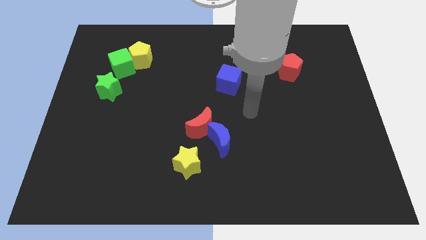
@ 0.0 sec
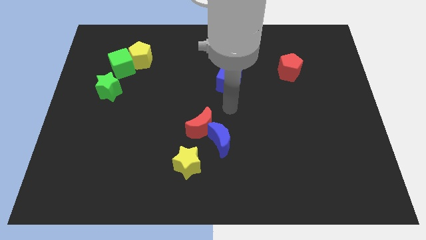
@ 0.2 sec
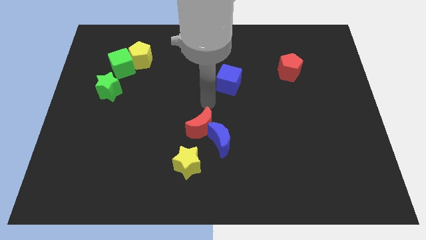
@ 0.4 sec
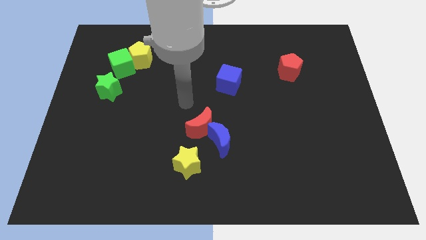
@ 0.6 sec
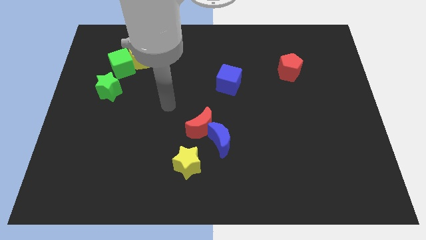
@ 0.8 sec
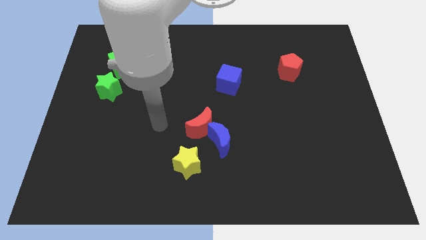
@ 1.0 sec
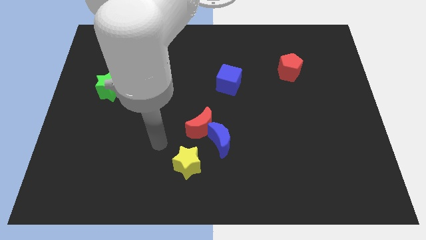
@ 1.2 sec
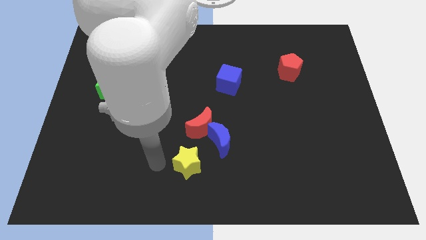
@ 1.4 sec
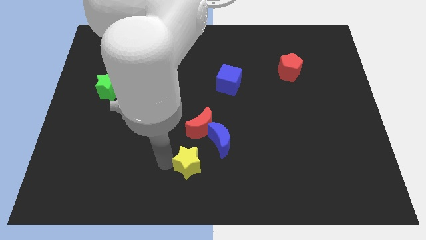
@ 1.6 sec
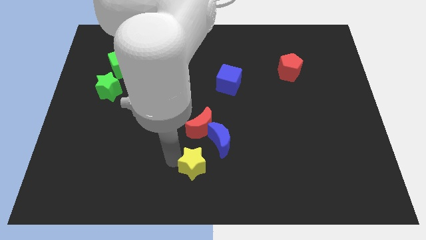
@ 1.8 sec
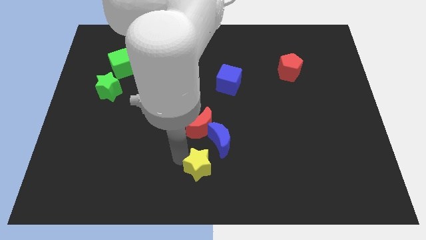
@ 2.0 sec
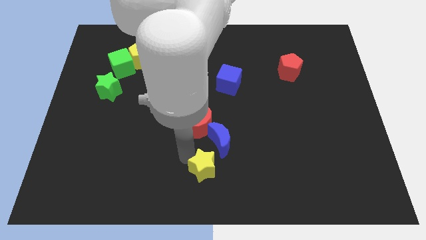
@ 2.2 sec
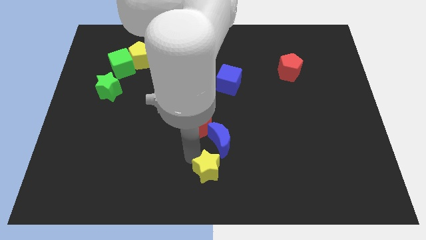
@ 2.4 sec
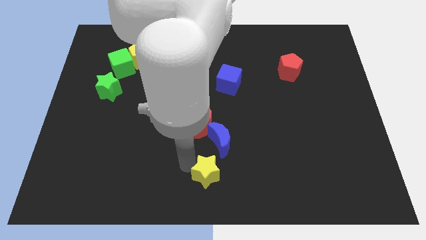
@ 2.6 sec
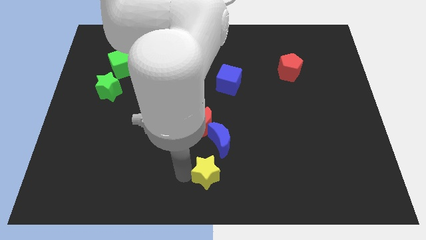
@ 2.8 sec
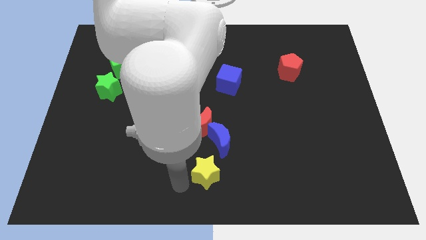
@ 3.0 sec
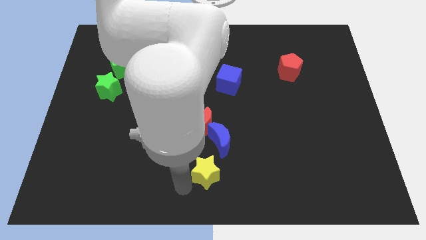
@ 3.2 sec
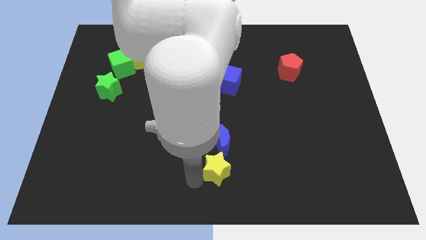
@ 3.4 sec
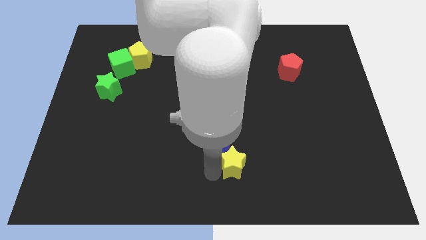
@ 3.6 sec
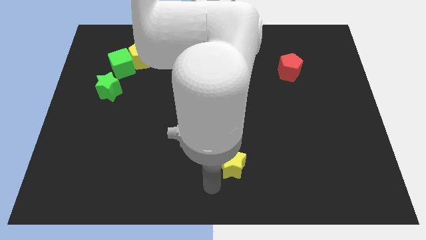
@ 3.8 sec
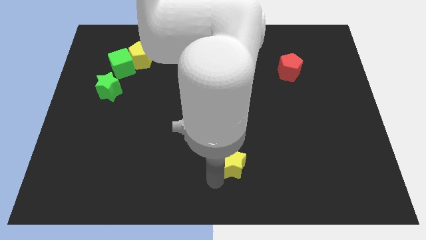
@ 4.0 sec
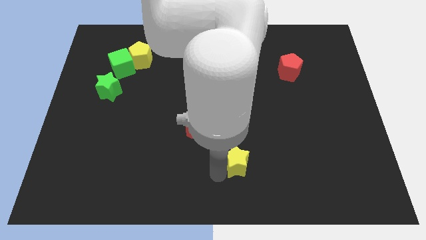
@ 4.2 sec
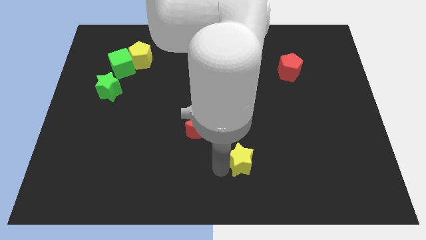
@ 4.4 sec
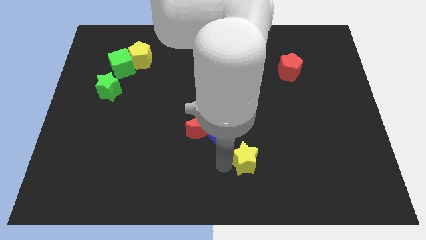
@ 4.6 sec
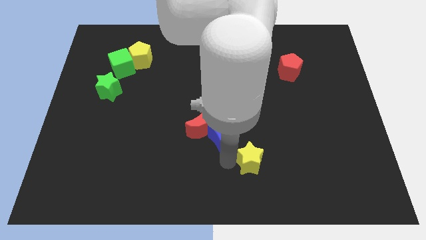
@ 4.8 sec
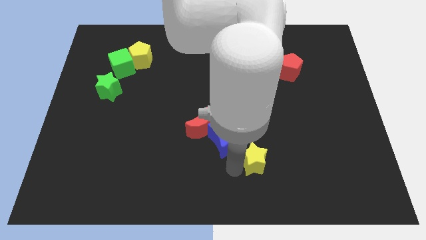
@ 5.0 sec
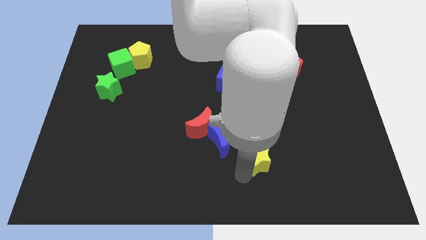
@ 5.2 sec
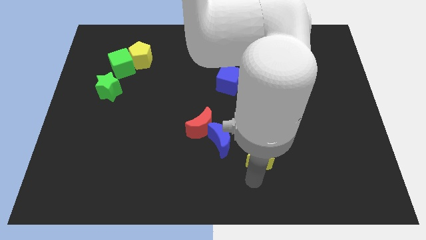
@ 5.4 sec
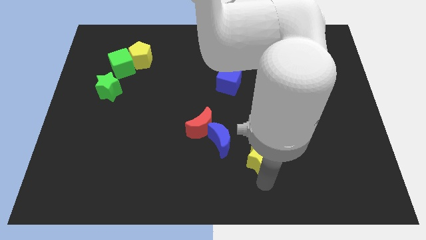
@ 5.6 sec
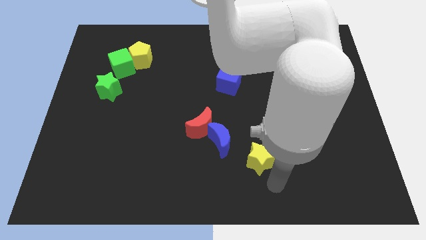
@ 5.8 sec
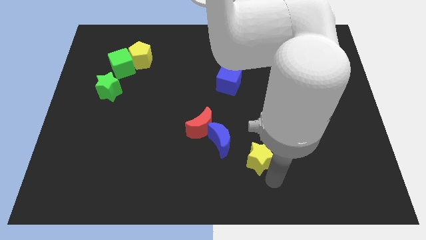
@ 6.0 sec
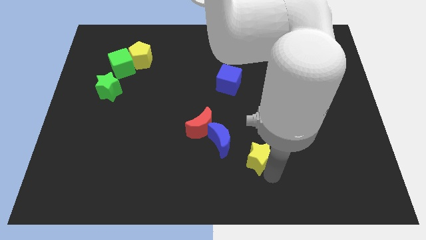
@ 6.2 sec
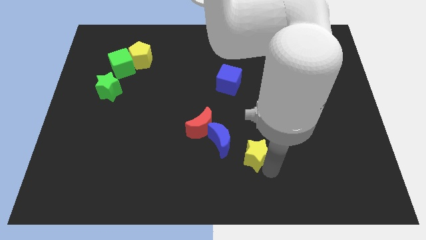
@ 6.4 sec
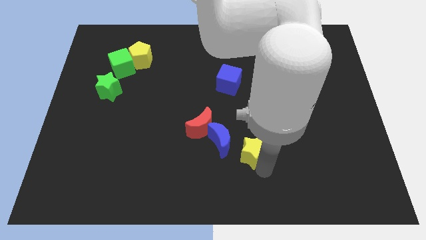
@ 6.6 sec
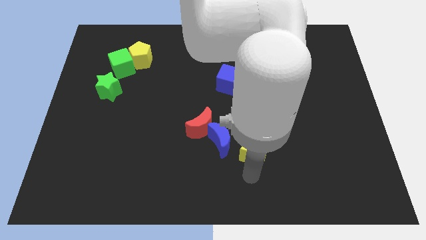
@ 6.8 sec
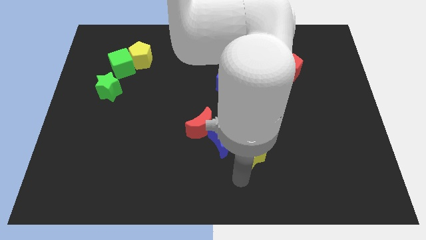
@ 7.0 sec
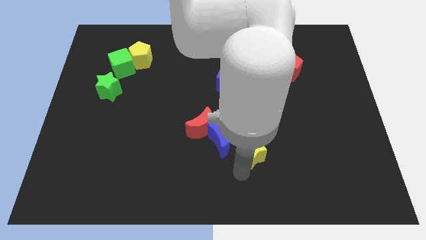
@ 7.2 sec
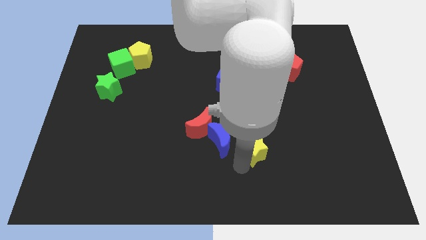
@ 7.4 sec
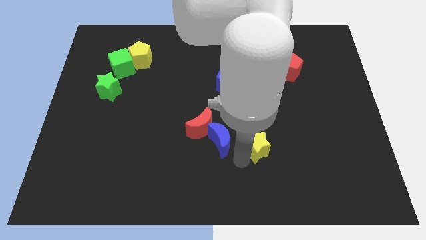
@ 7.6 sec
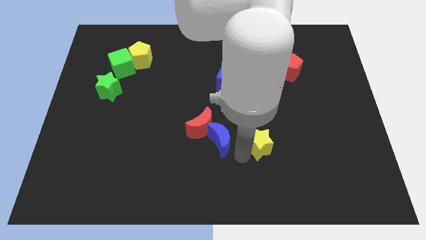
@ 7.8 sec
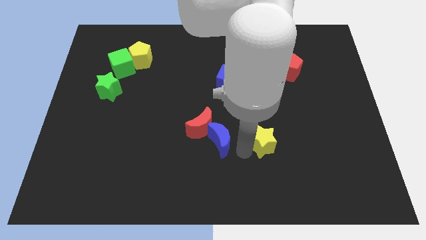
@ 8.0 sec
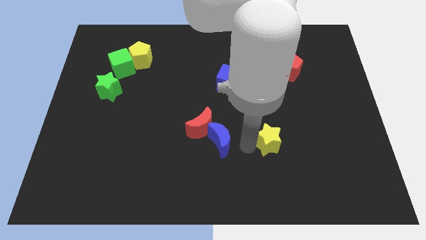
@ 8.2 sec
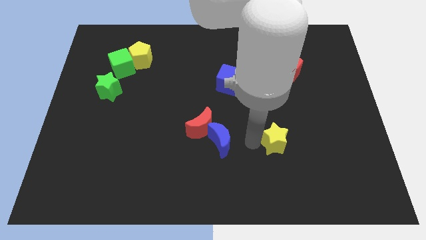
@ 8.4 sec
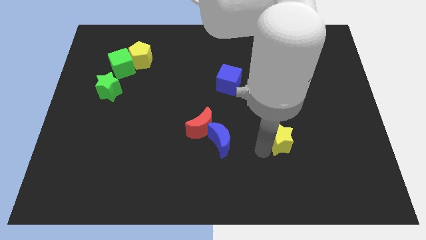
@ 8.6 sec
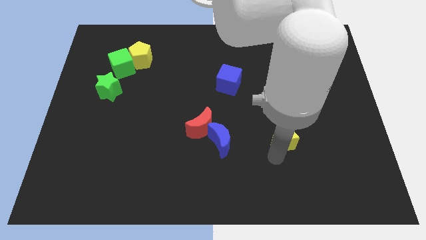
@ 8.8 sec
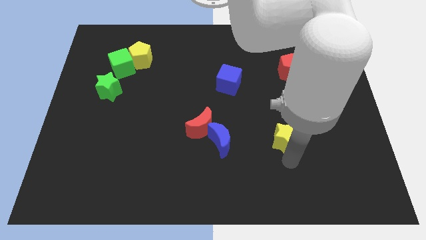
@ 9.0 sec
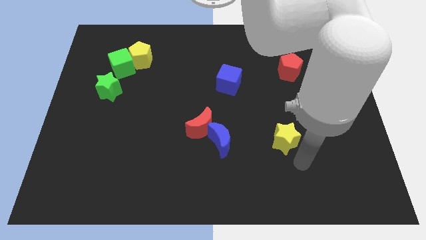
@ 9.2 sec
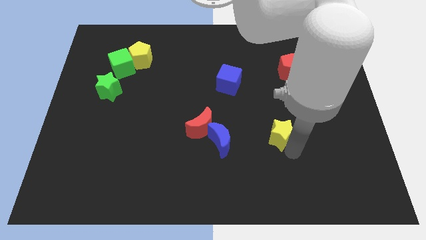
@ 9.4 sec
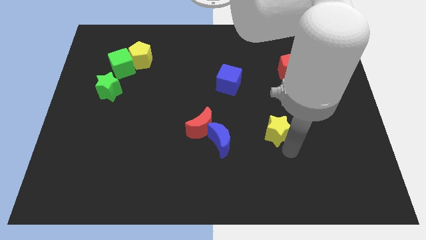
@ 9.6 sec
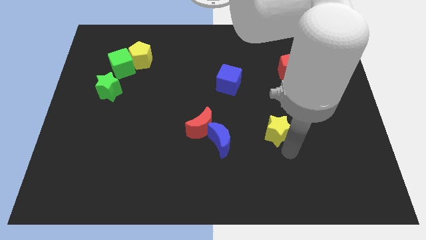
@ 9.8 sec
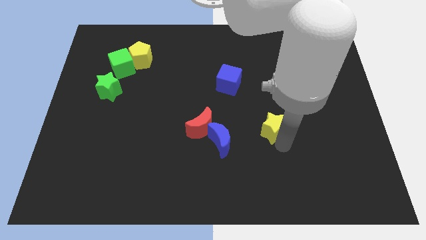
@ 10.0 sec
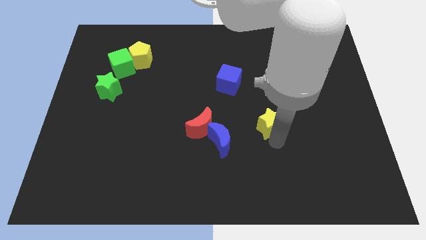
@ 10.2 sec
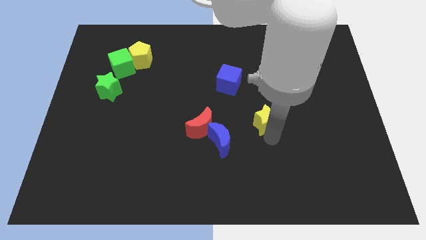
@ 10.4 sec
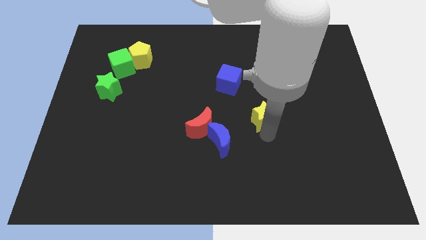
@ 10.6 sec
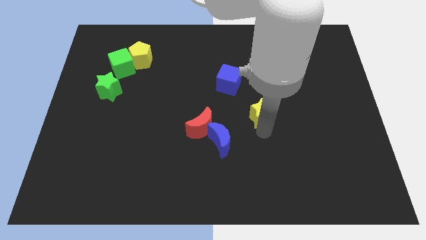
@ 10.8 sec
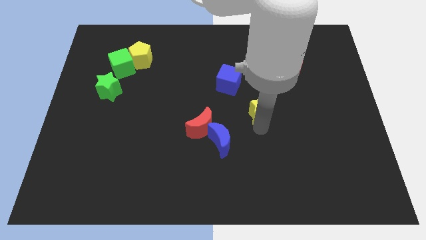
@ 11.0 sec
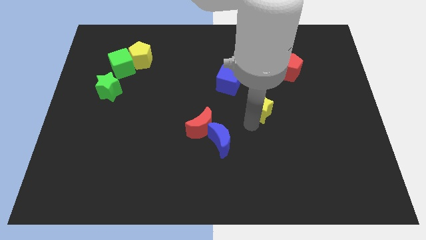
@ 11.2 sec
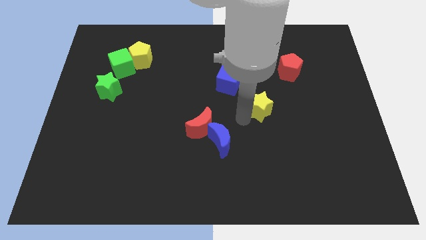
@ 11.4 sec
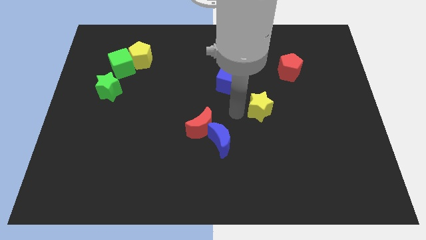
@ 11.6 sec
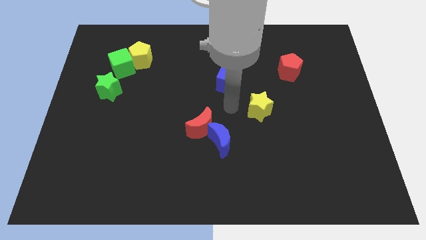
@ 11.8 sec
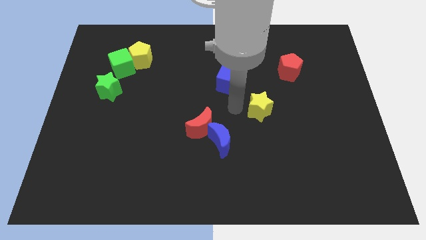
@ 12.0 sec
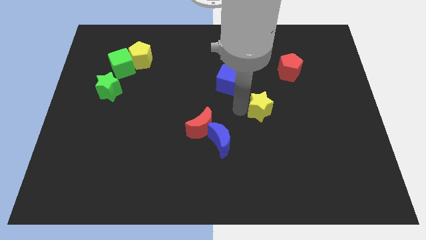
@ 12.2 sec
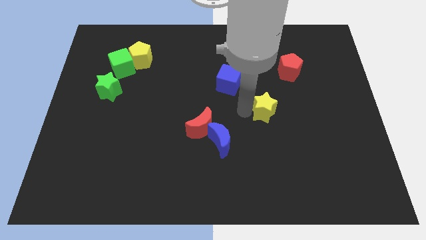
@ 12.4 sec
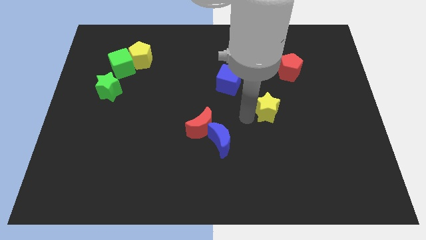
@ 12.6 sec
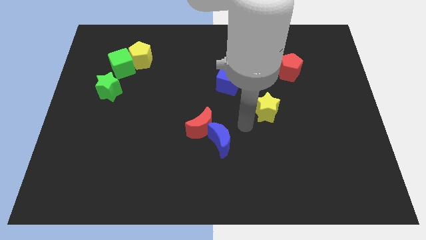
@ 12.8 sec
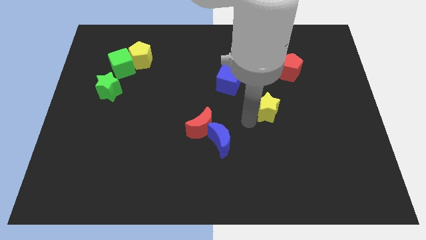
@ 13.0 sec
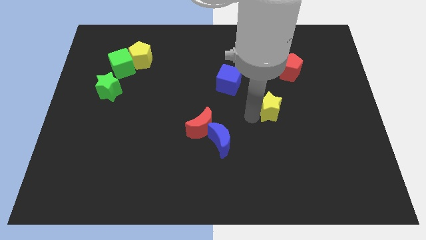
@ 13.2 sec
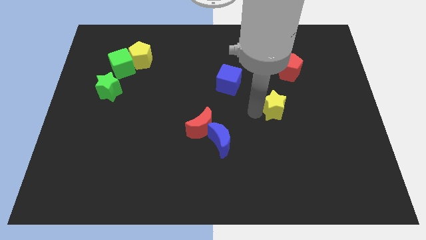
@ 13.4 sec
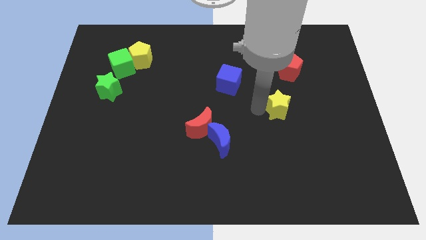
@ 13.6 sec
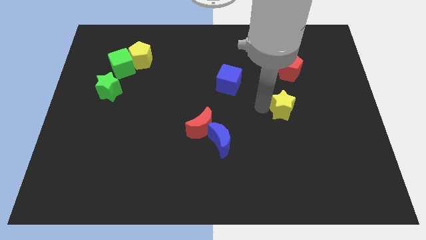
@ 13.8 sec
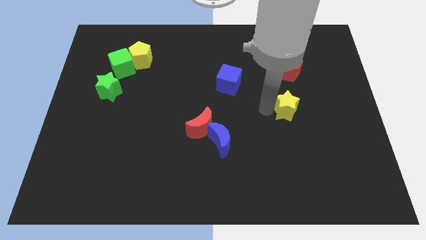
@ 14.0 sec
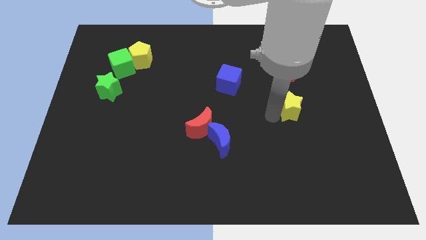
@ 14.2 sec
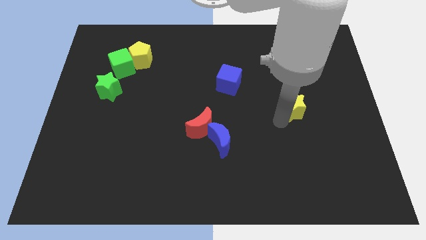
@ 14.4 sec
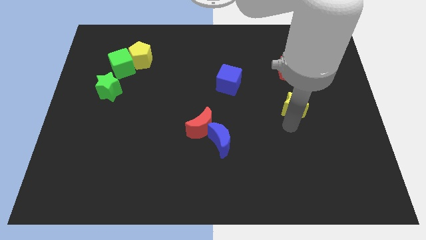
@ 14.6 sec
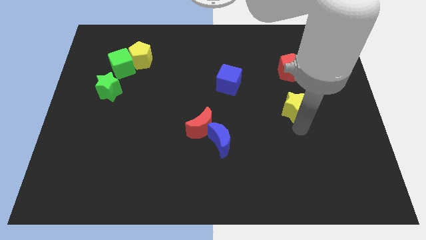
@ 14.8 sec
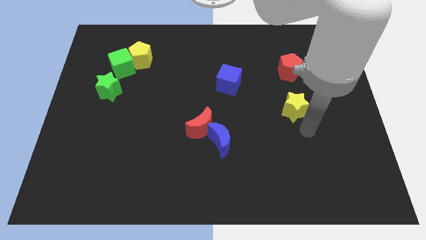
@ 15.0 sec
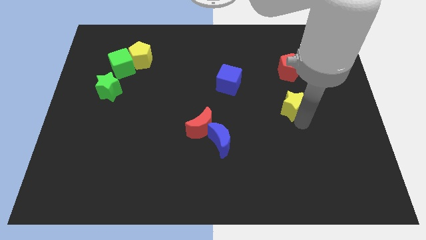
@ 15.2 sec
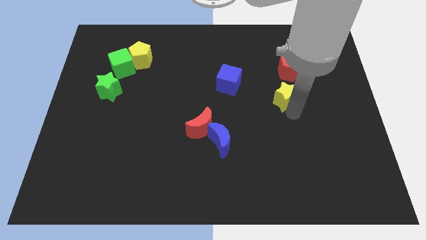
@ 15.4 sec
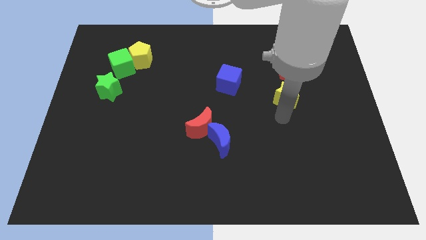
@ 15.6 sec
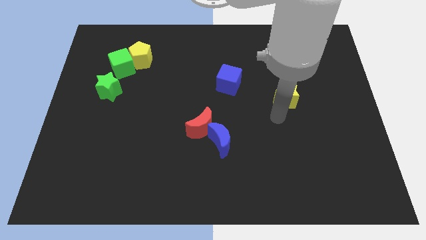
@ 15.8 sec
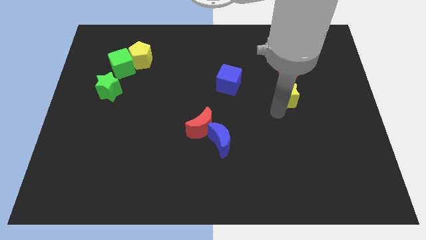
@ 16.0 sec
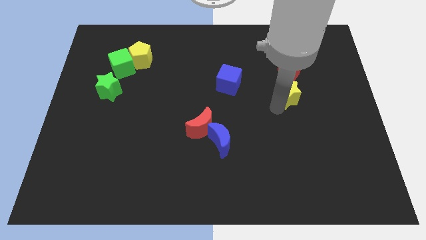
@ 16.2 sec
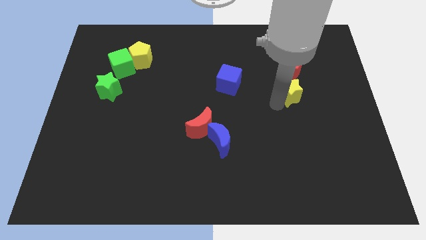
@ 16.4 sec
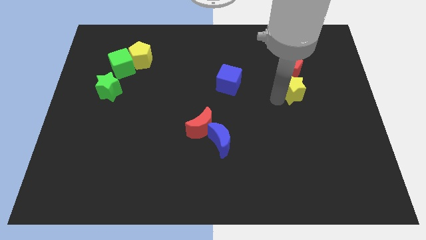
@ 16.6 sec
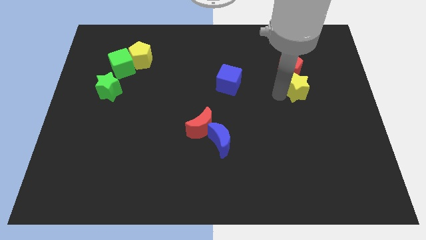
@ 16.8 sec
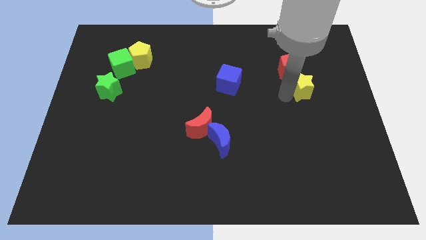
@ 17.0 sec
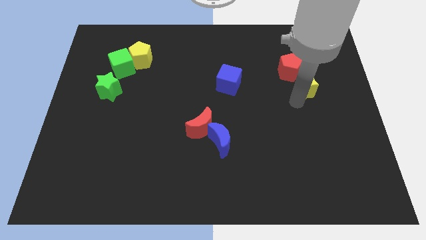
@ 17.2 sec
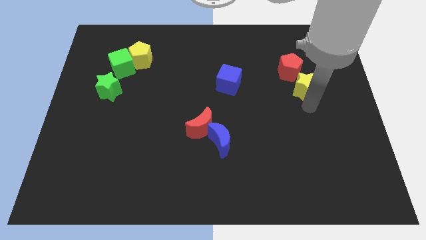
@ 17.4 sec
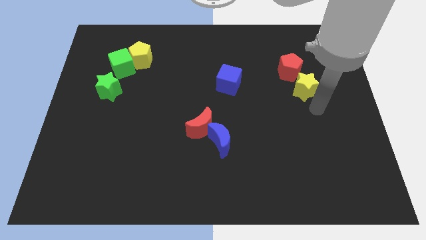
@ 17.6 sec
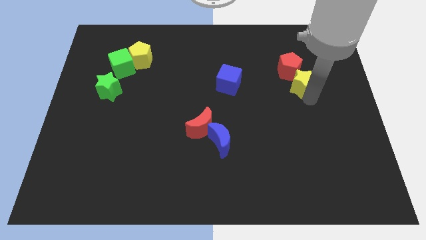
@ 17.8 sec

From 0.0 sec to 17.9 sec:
slide the yellow star close to the red pentagon
